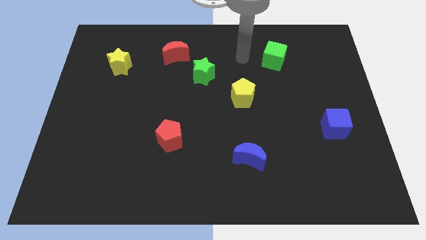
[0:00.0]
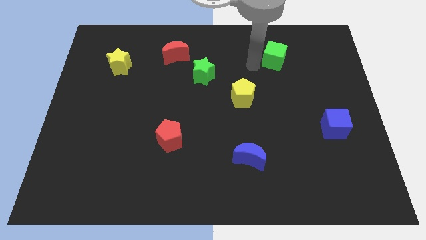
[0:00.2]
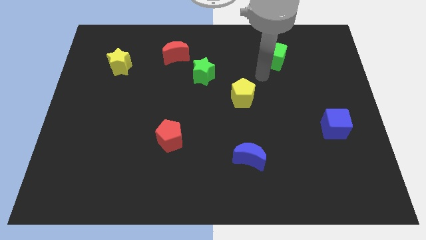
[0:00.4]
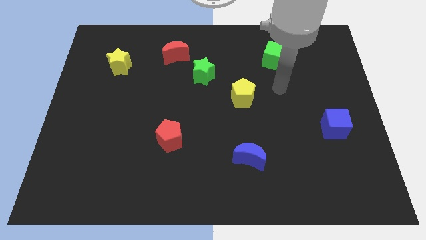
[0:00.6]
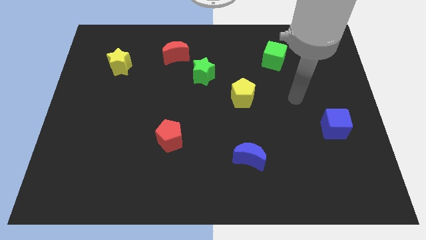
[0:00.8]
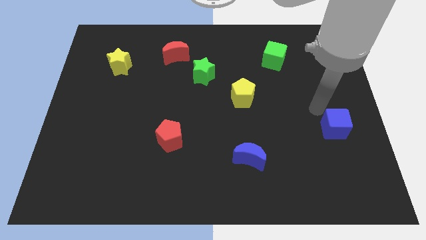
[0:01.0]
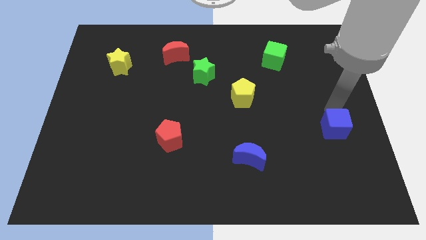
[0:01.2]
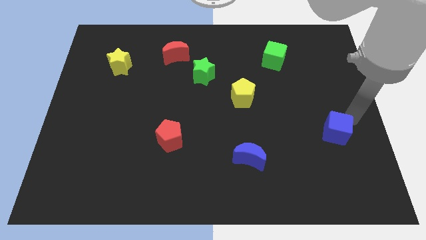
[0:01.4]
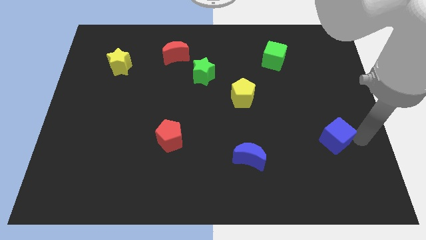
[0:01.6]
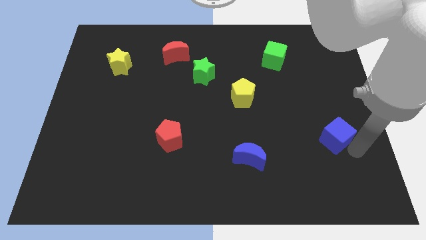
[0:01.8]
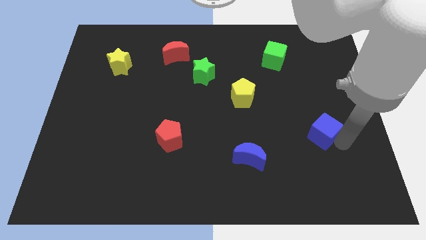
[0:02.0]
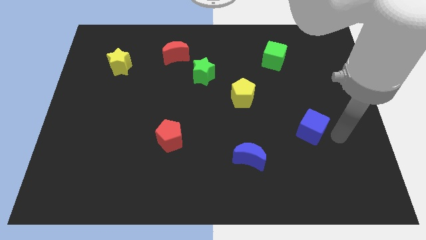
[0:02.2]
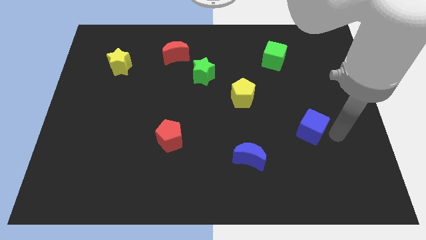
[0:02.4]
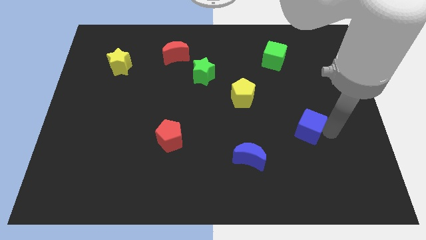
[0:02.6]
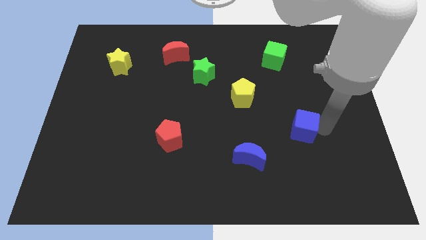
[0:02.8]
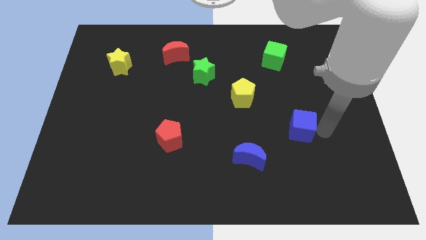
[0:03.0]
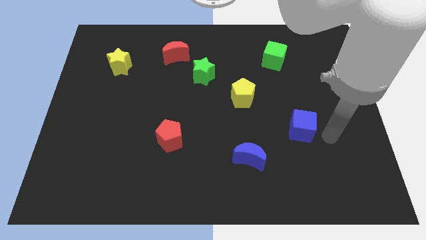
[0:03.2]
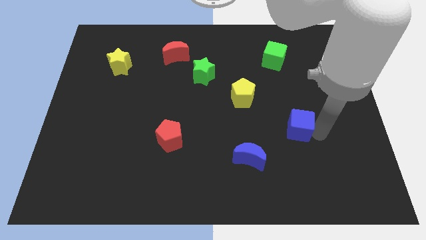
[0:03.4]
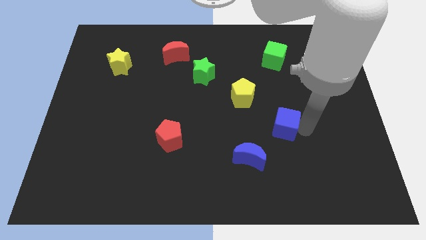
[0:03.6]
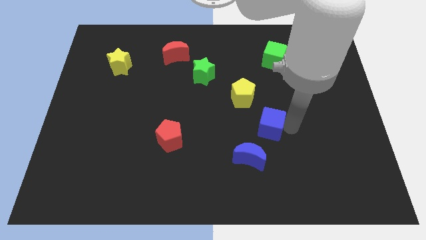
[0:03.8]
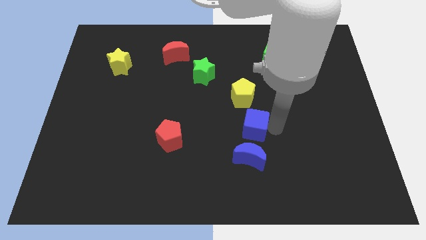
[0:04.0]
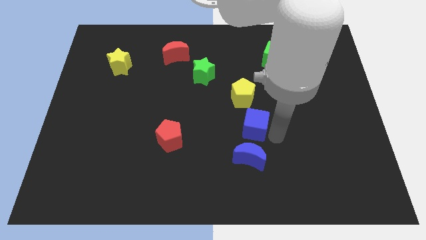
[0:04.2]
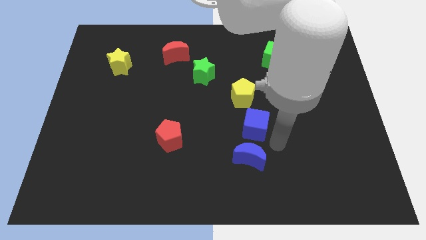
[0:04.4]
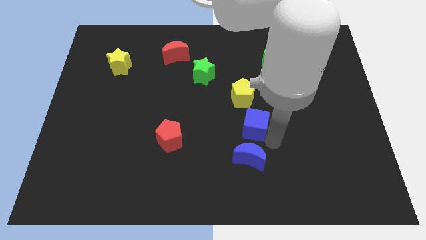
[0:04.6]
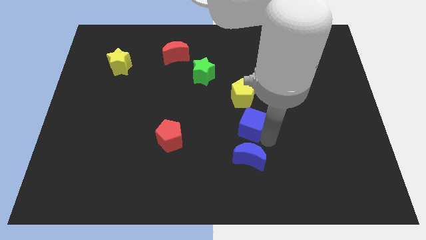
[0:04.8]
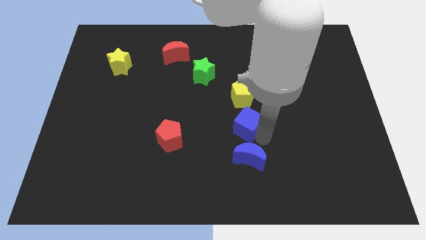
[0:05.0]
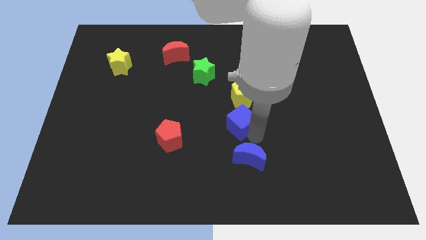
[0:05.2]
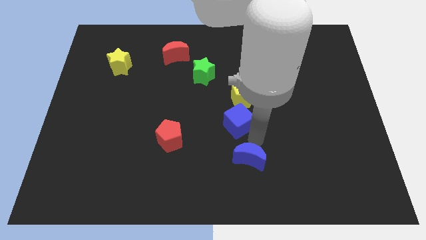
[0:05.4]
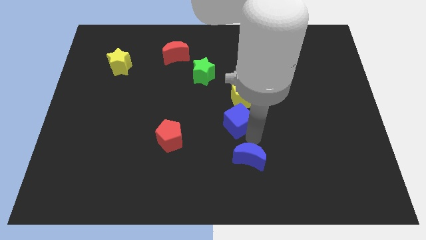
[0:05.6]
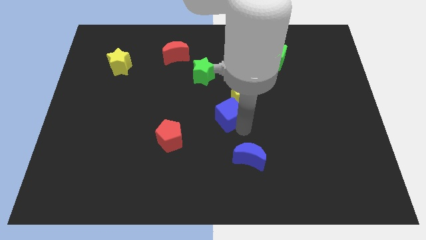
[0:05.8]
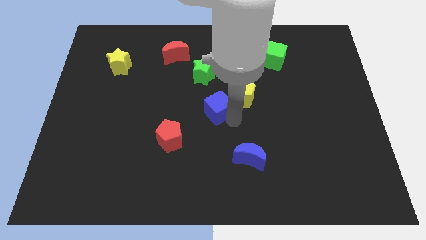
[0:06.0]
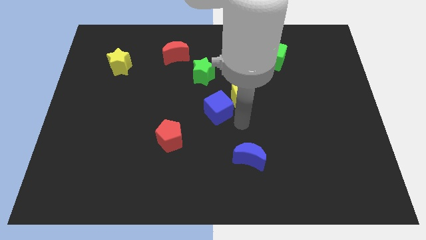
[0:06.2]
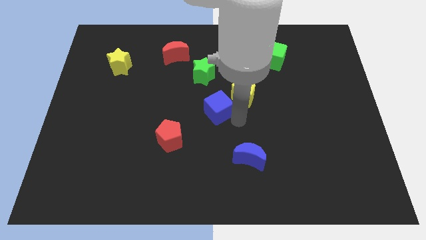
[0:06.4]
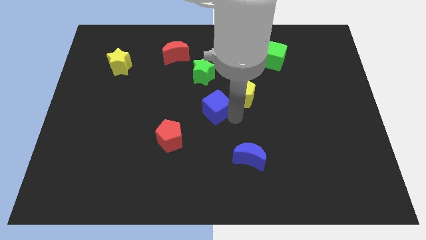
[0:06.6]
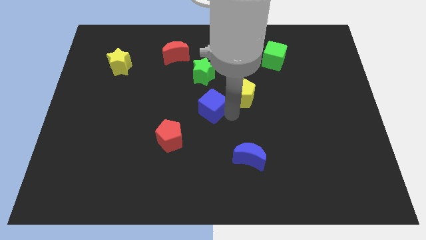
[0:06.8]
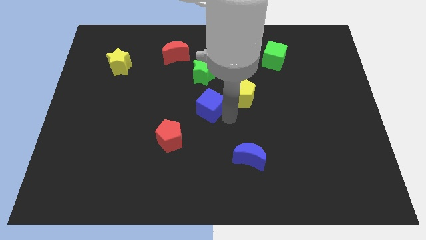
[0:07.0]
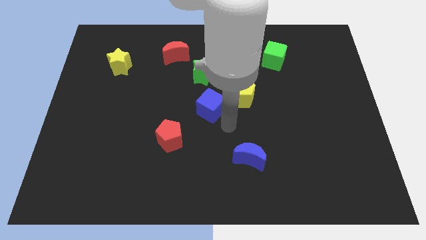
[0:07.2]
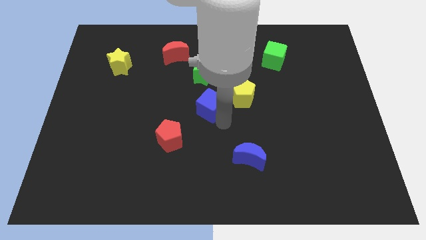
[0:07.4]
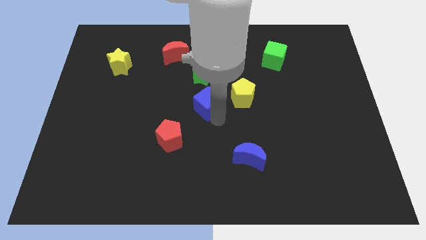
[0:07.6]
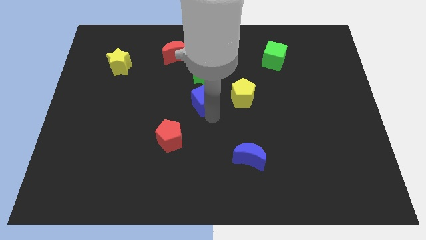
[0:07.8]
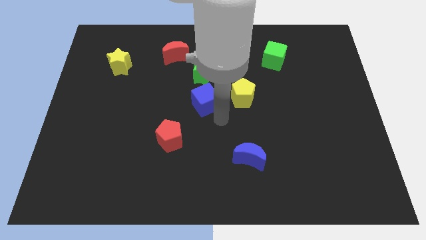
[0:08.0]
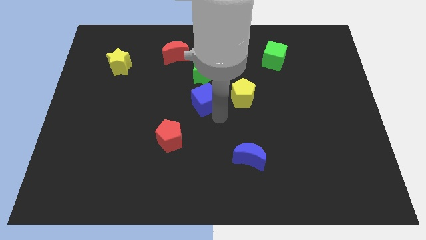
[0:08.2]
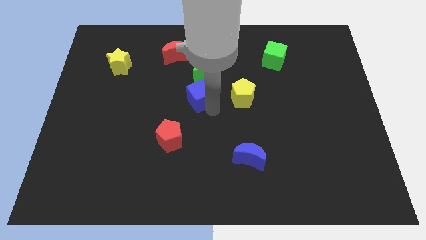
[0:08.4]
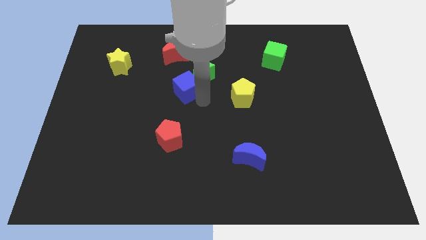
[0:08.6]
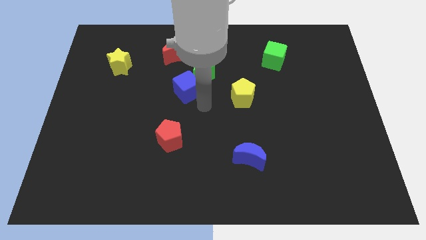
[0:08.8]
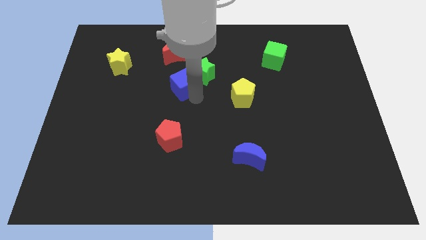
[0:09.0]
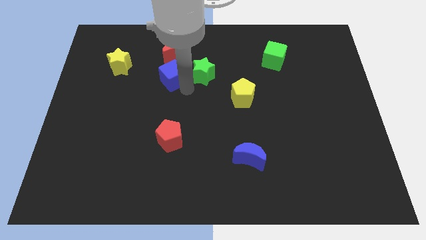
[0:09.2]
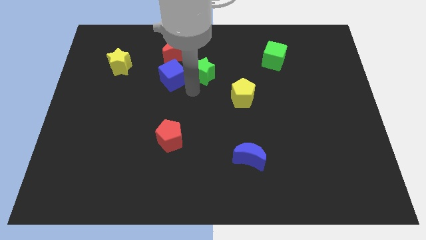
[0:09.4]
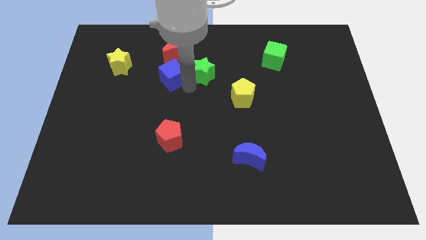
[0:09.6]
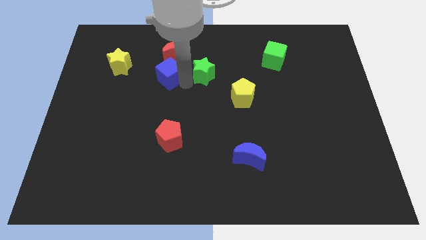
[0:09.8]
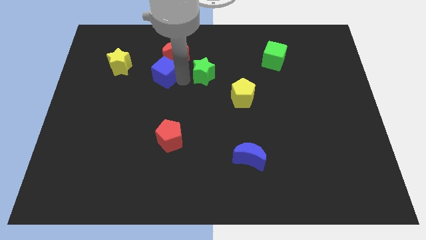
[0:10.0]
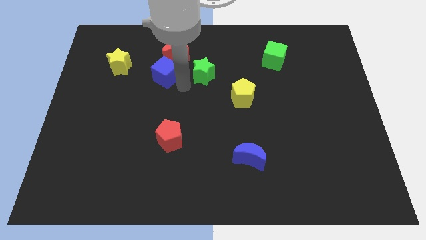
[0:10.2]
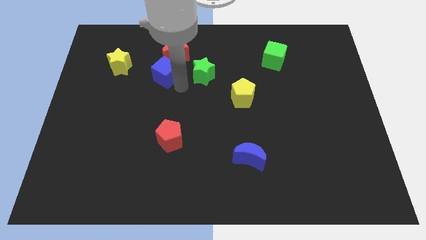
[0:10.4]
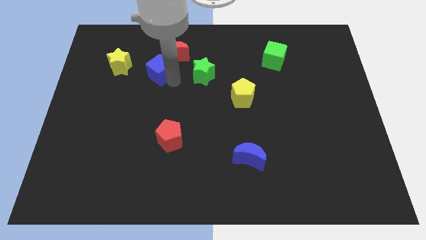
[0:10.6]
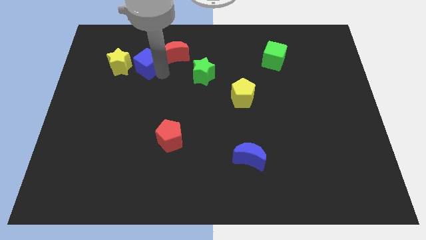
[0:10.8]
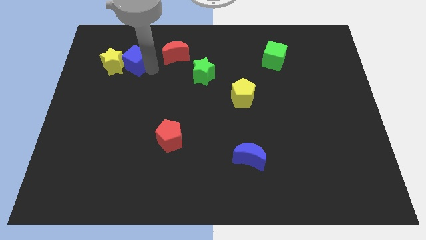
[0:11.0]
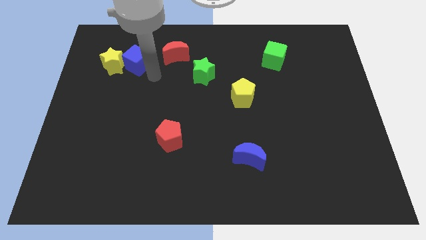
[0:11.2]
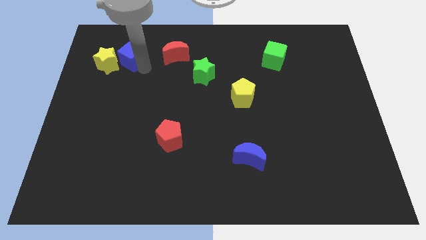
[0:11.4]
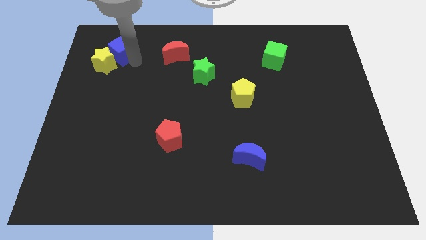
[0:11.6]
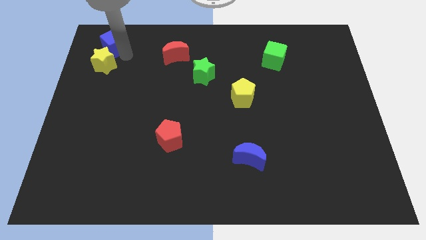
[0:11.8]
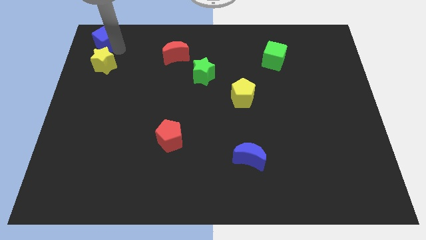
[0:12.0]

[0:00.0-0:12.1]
push the blue cube to the top left

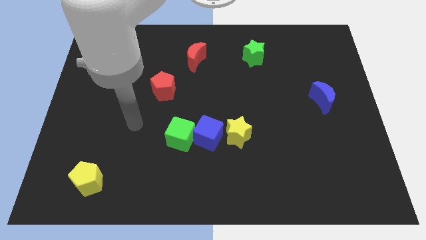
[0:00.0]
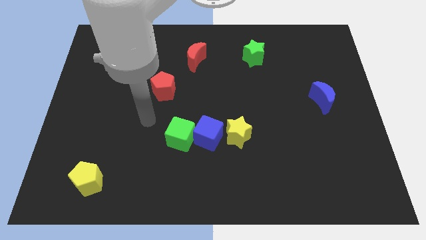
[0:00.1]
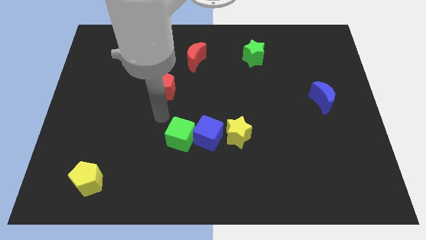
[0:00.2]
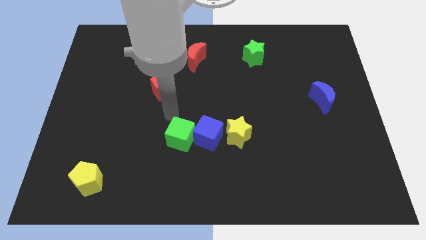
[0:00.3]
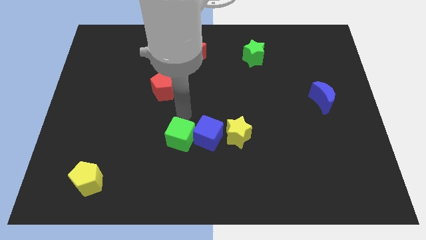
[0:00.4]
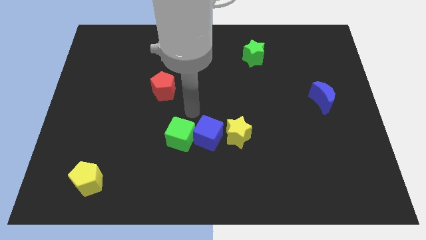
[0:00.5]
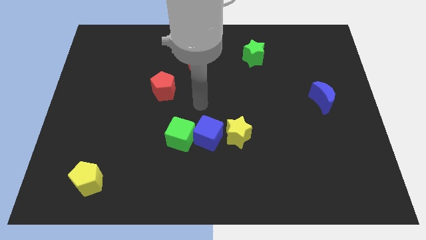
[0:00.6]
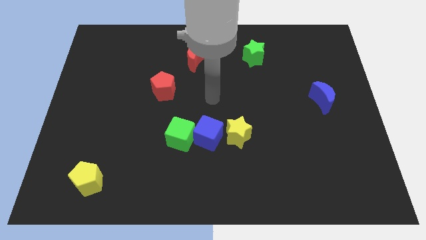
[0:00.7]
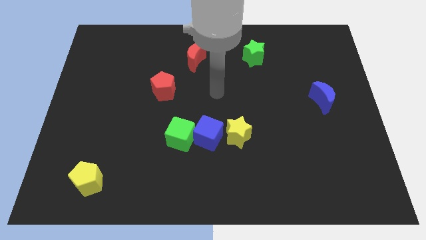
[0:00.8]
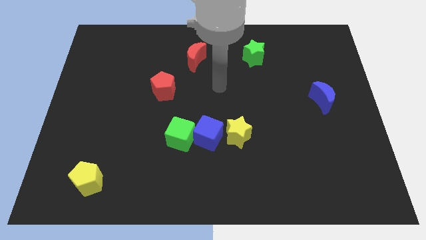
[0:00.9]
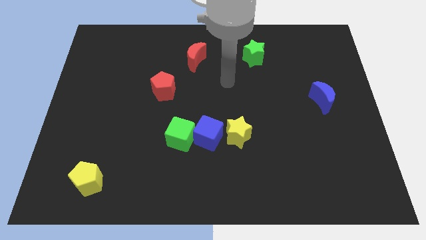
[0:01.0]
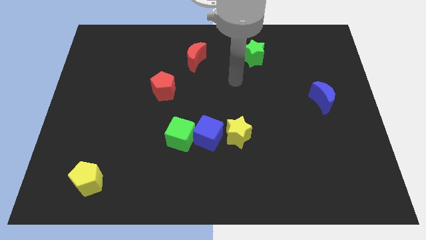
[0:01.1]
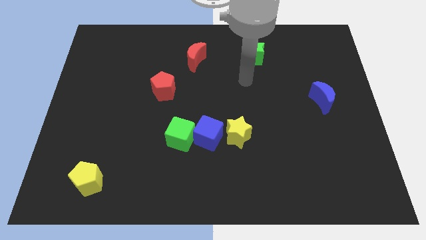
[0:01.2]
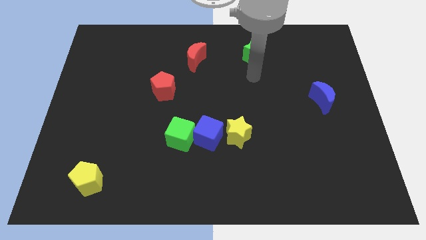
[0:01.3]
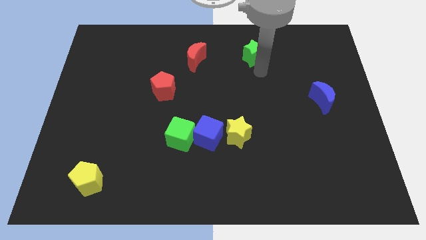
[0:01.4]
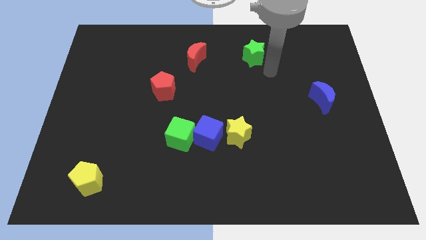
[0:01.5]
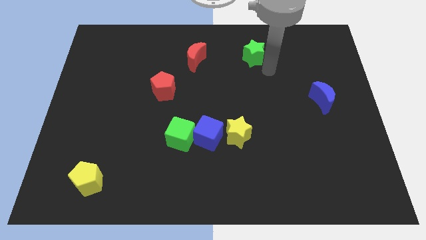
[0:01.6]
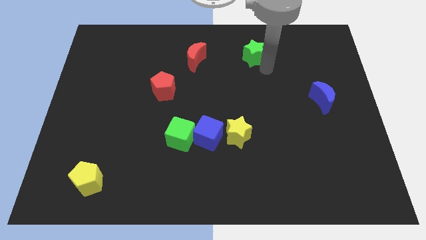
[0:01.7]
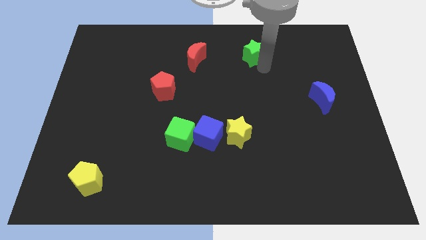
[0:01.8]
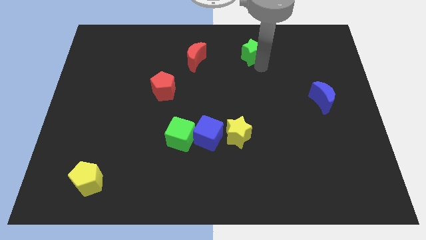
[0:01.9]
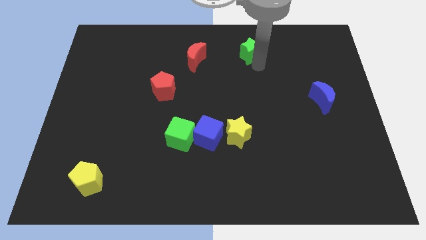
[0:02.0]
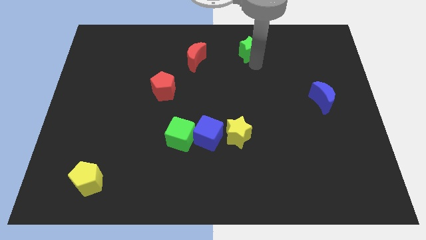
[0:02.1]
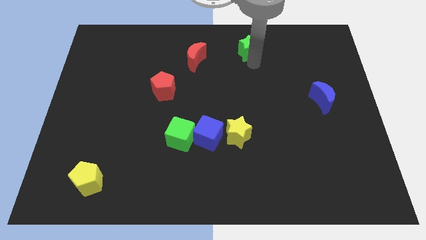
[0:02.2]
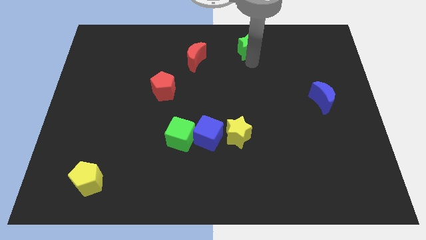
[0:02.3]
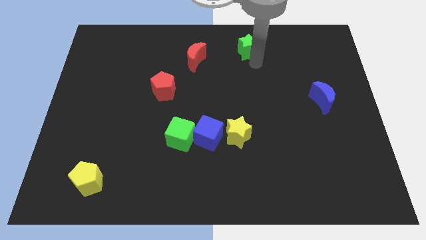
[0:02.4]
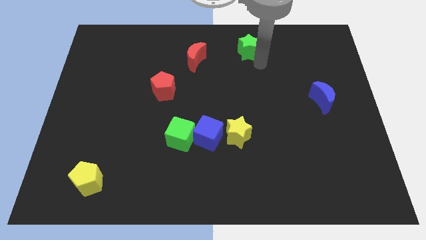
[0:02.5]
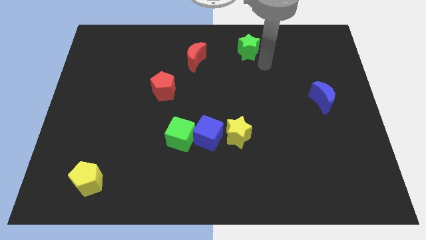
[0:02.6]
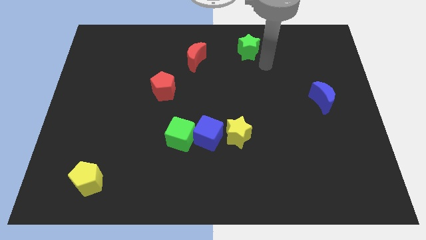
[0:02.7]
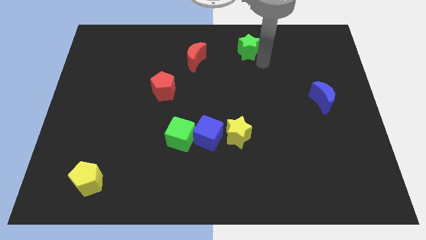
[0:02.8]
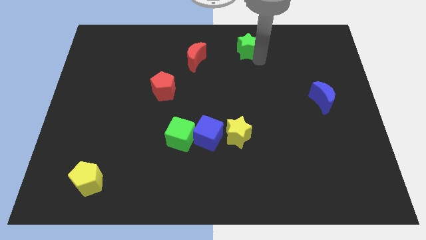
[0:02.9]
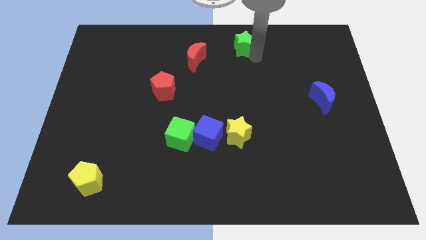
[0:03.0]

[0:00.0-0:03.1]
put the green star to the top
